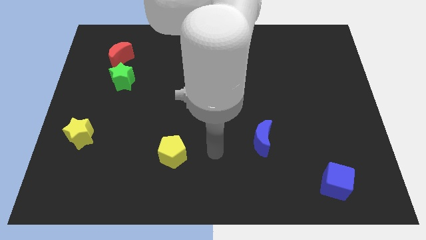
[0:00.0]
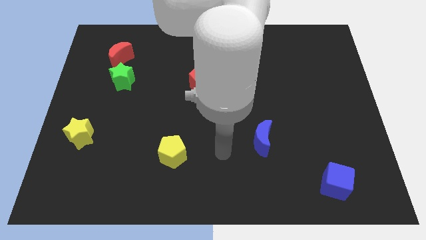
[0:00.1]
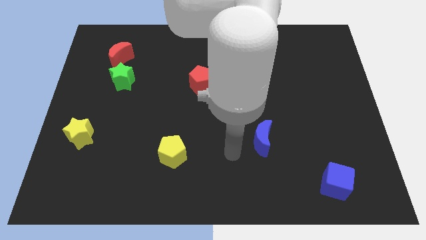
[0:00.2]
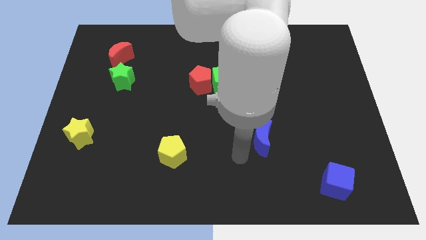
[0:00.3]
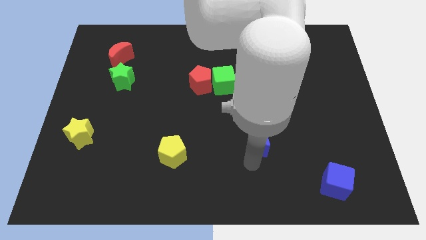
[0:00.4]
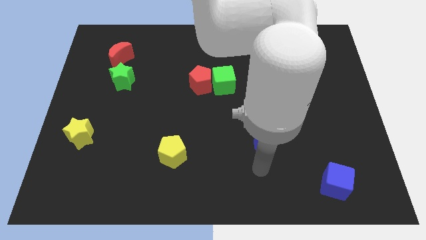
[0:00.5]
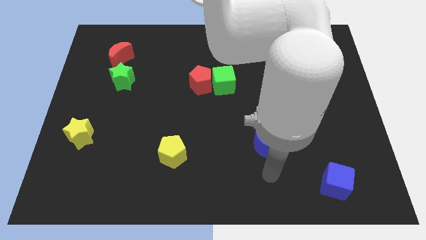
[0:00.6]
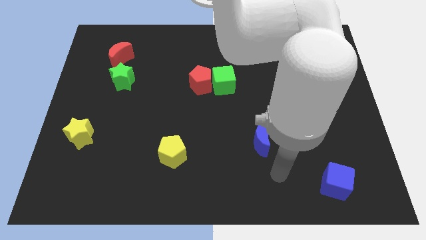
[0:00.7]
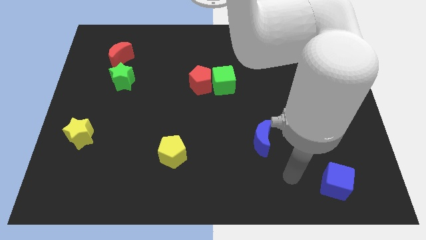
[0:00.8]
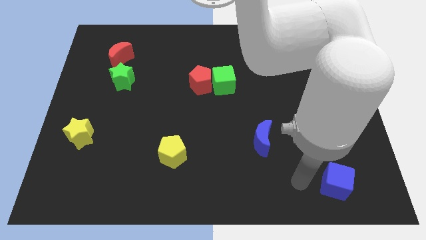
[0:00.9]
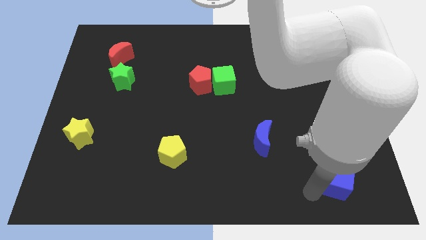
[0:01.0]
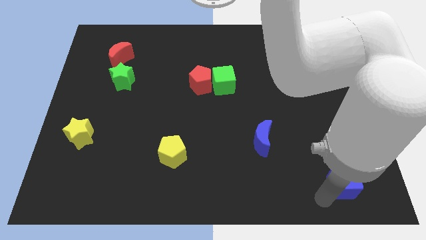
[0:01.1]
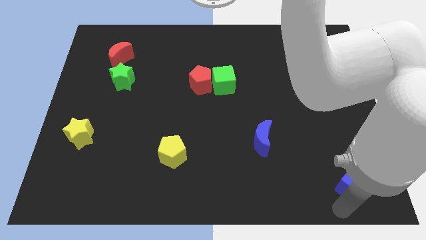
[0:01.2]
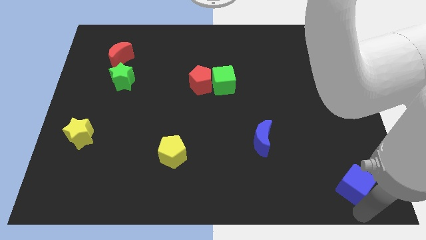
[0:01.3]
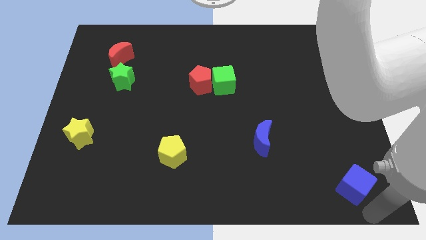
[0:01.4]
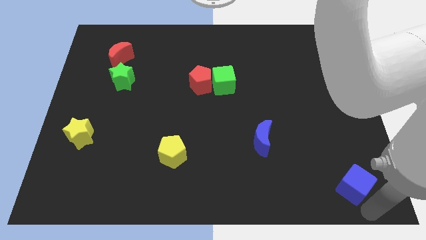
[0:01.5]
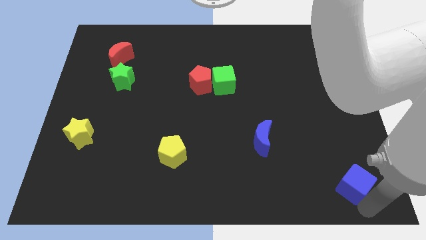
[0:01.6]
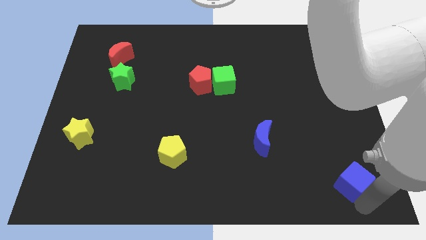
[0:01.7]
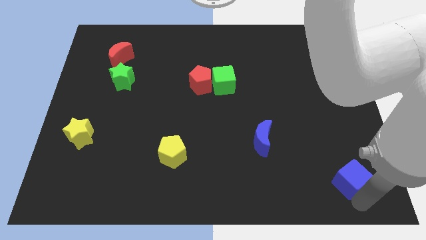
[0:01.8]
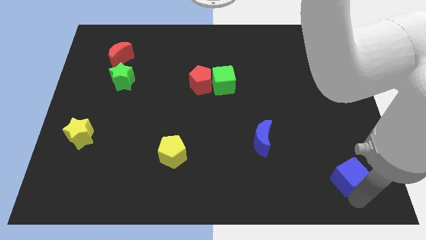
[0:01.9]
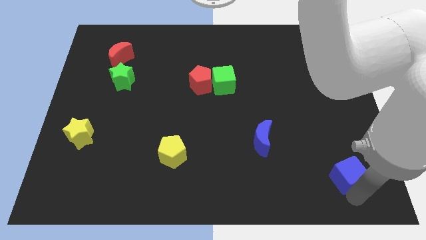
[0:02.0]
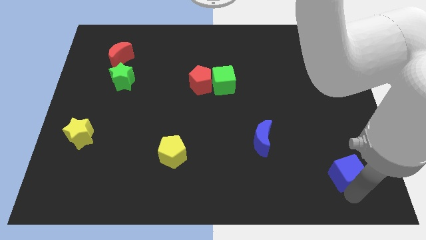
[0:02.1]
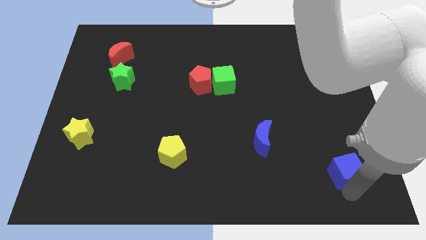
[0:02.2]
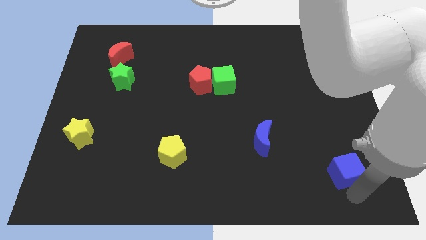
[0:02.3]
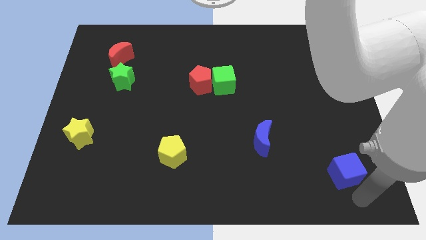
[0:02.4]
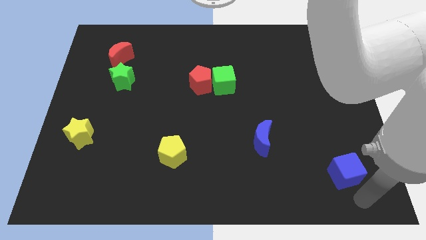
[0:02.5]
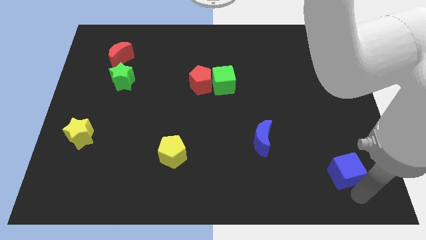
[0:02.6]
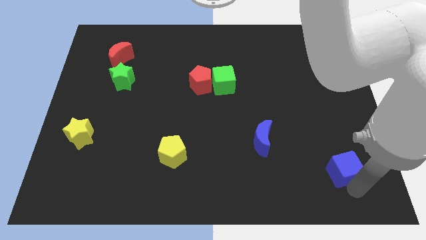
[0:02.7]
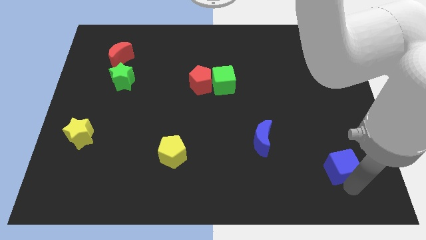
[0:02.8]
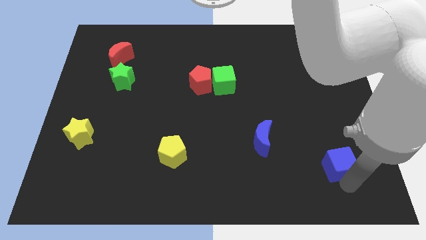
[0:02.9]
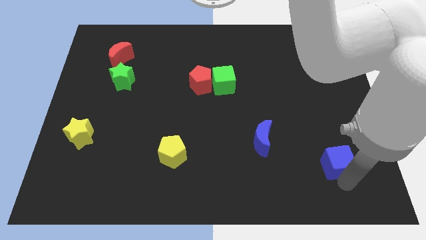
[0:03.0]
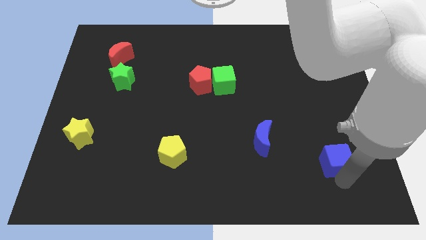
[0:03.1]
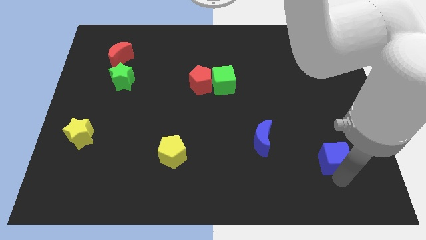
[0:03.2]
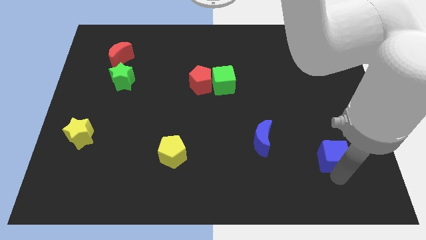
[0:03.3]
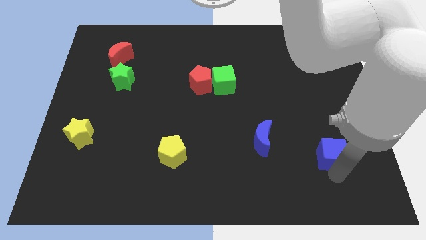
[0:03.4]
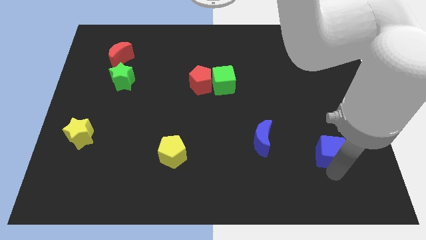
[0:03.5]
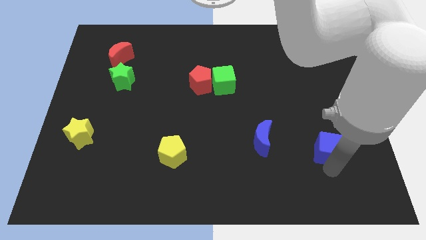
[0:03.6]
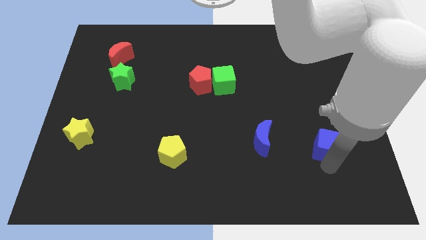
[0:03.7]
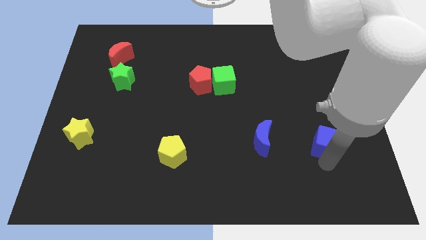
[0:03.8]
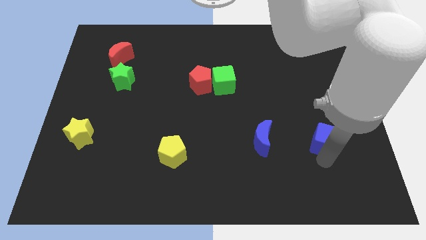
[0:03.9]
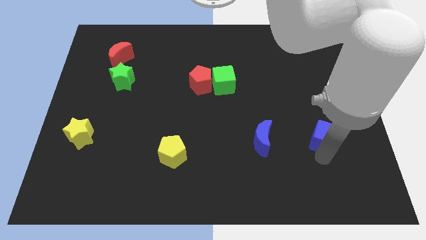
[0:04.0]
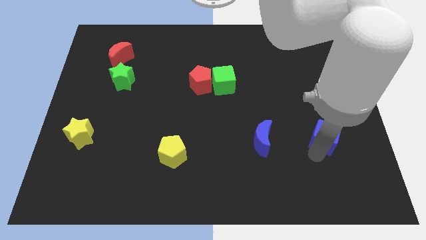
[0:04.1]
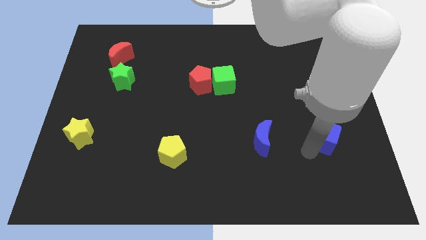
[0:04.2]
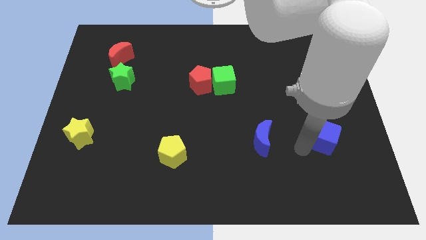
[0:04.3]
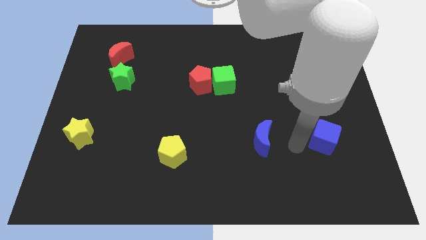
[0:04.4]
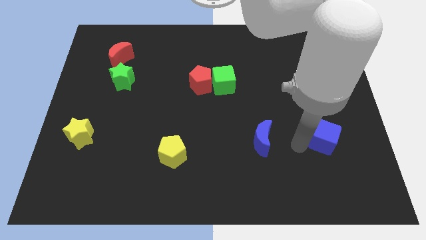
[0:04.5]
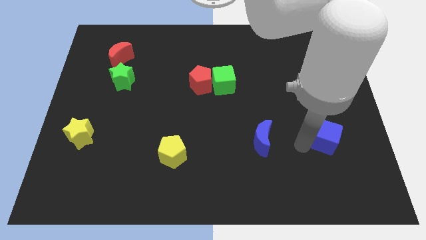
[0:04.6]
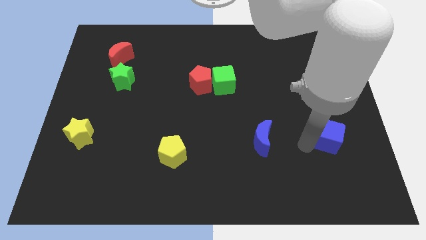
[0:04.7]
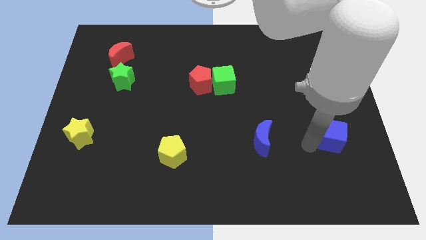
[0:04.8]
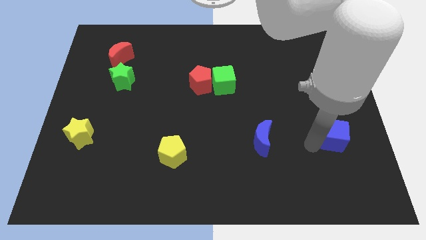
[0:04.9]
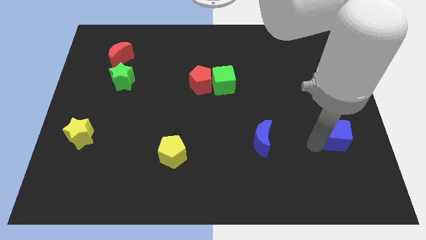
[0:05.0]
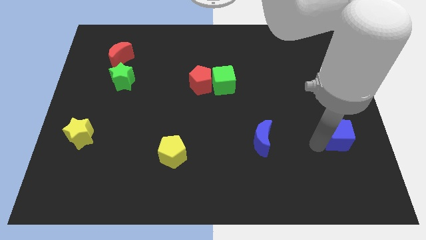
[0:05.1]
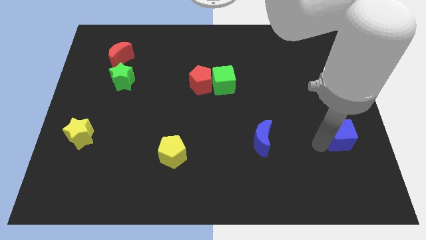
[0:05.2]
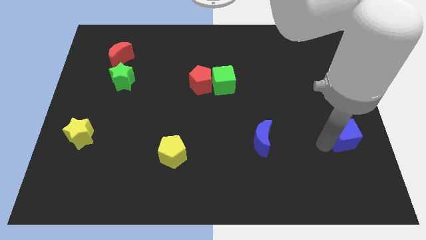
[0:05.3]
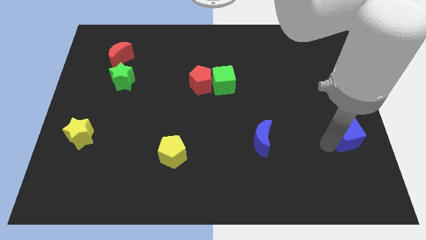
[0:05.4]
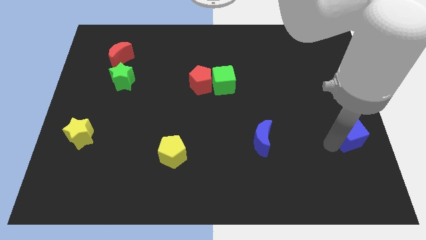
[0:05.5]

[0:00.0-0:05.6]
slide the blue cube to the right side

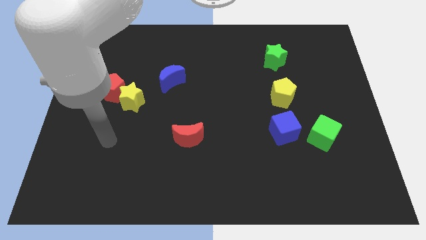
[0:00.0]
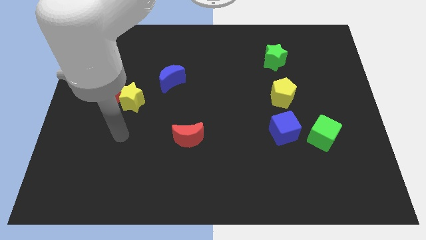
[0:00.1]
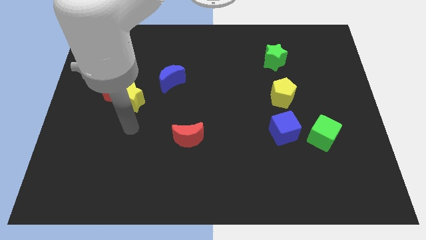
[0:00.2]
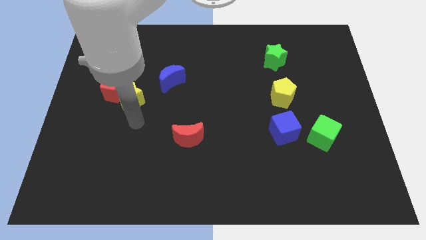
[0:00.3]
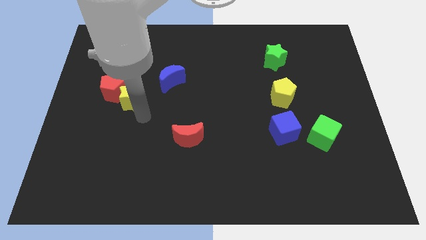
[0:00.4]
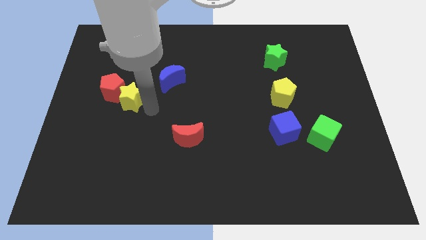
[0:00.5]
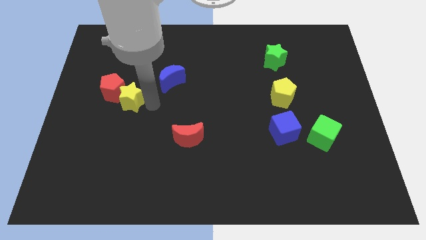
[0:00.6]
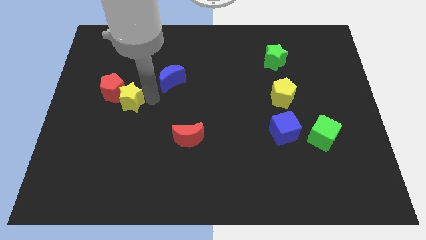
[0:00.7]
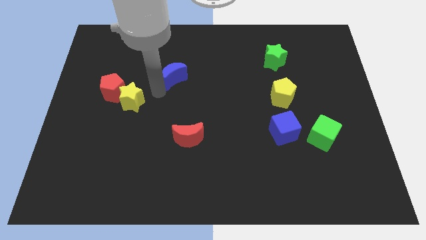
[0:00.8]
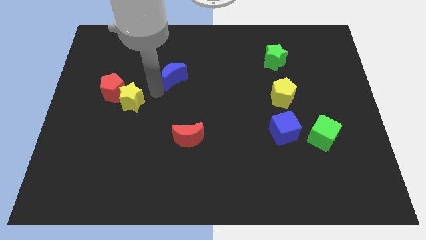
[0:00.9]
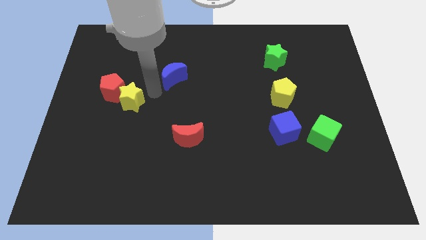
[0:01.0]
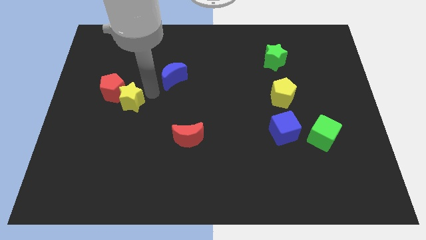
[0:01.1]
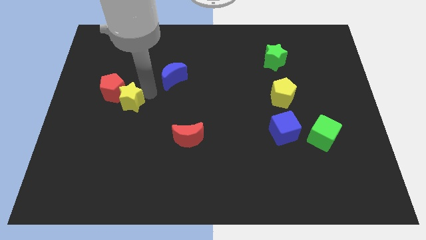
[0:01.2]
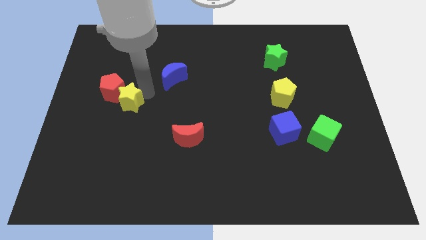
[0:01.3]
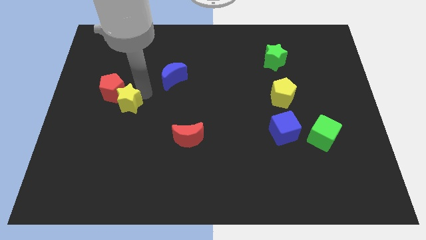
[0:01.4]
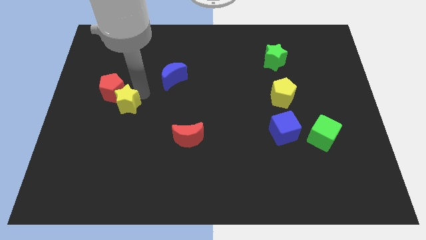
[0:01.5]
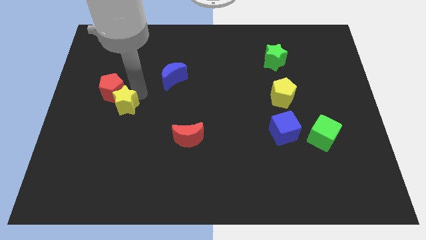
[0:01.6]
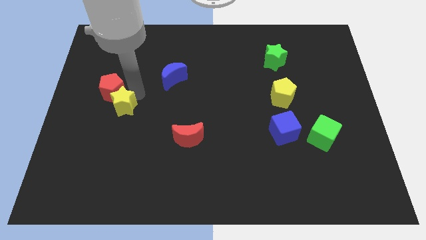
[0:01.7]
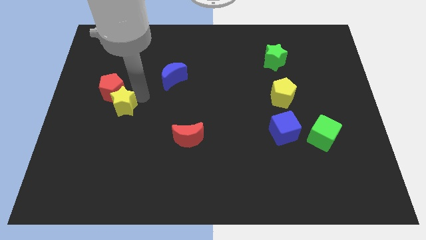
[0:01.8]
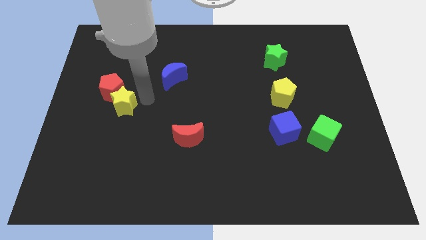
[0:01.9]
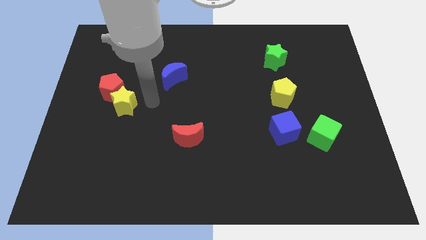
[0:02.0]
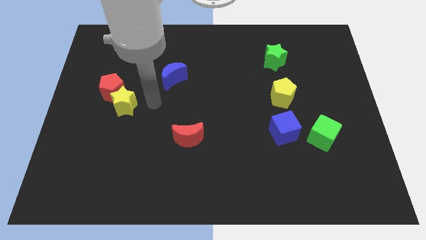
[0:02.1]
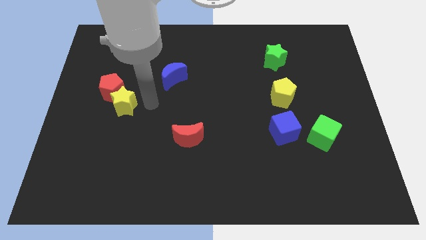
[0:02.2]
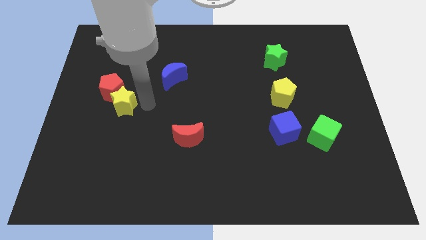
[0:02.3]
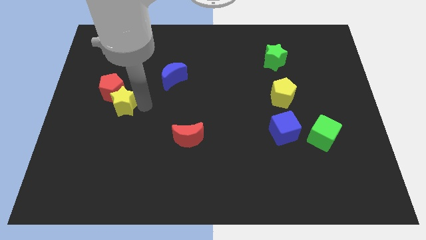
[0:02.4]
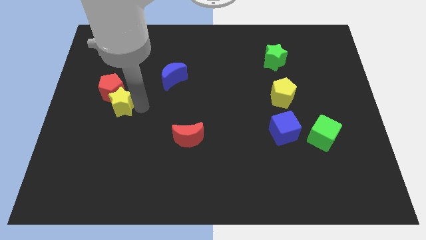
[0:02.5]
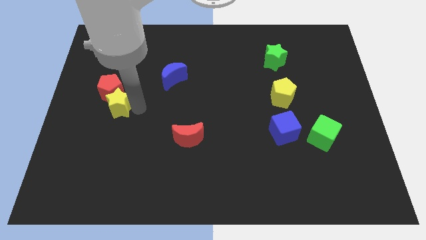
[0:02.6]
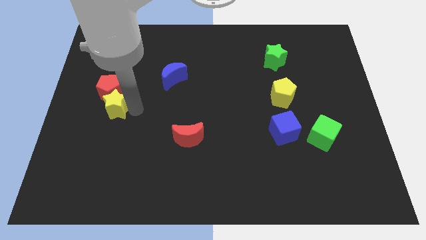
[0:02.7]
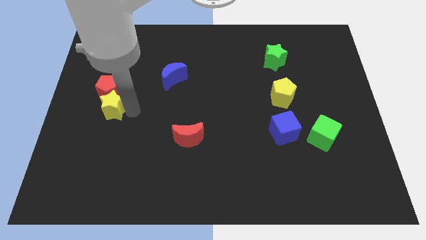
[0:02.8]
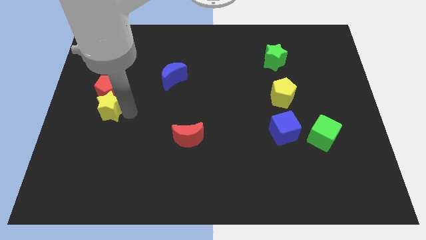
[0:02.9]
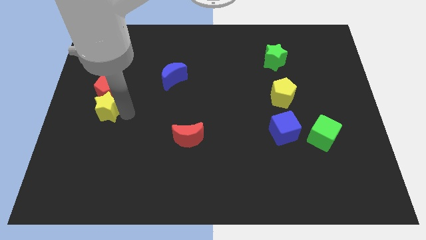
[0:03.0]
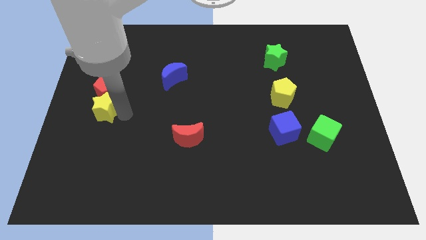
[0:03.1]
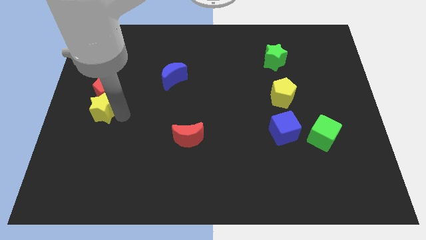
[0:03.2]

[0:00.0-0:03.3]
move the yellow star to the left side
